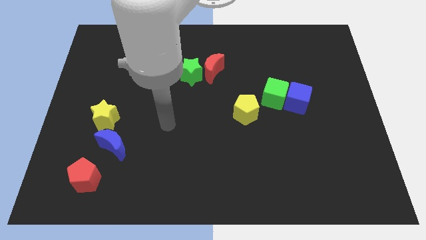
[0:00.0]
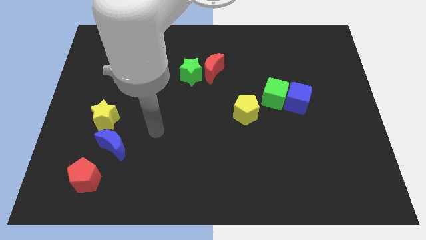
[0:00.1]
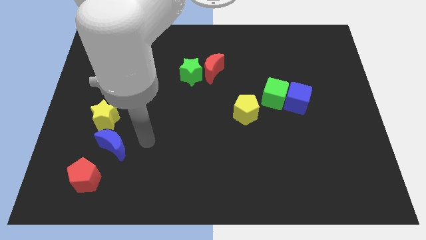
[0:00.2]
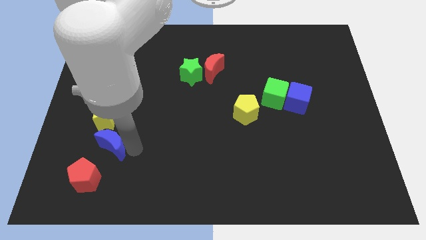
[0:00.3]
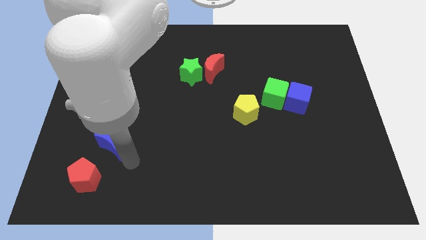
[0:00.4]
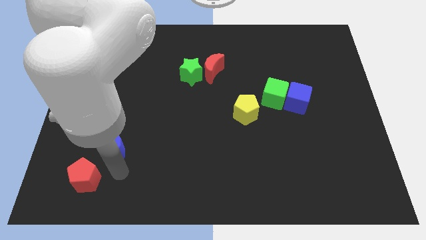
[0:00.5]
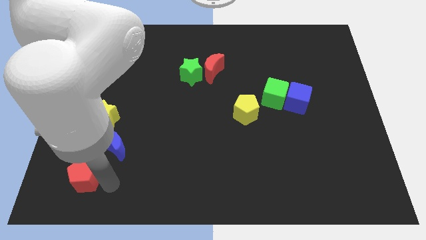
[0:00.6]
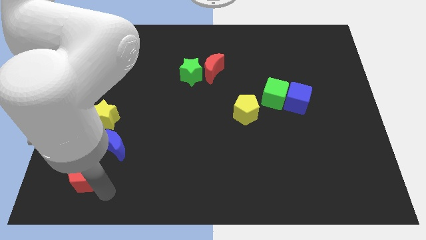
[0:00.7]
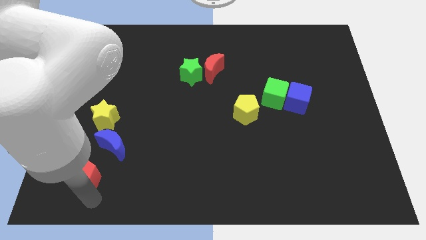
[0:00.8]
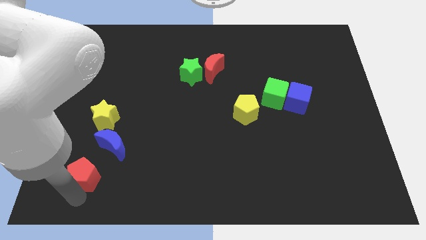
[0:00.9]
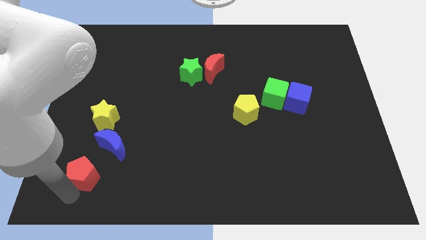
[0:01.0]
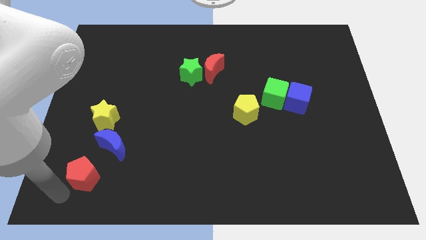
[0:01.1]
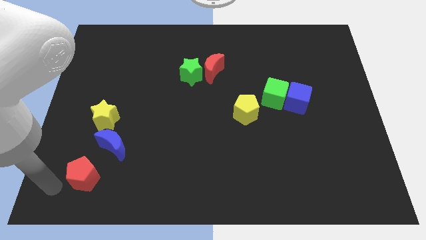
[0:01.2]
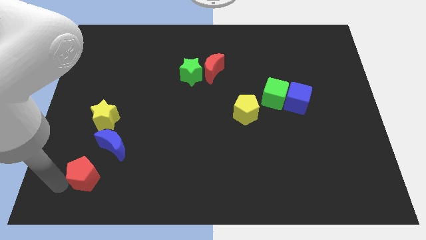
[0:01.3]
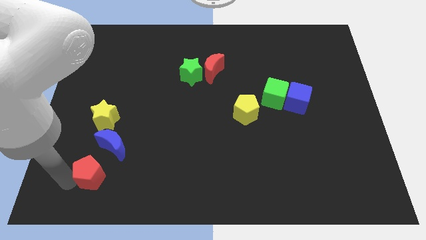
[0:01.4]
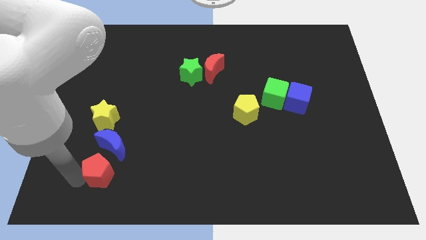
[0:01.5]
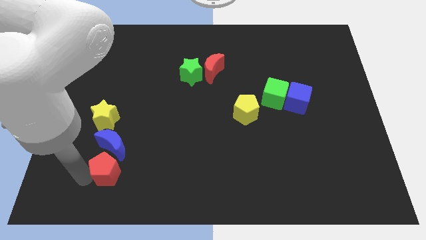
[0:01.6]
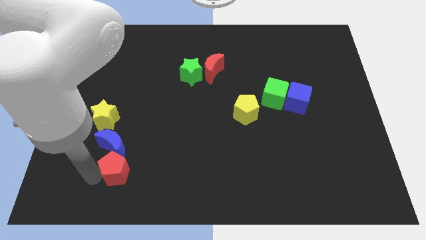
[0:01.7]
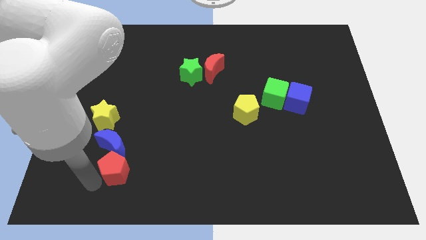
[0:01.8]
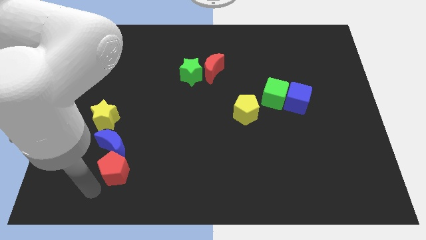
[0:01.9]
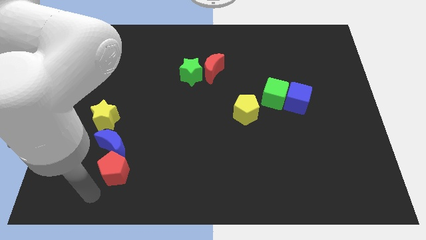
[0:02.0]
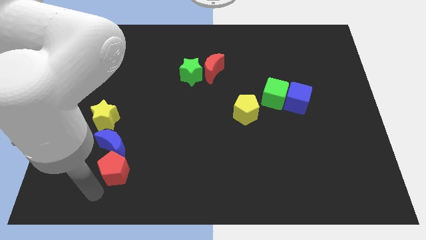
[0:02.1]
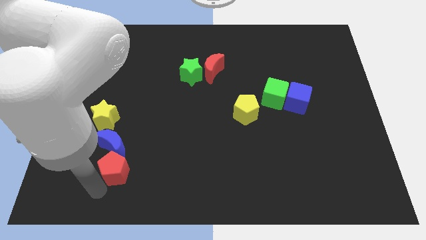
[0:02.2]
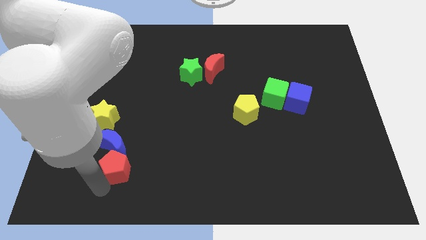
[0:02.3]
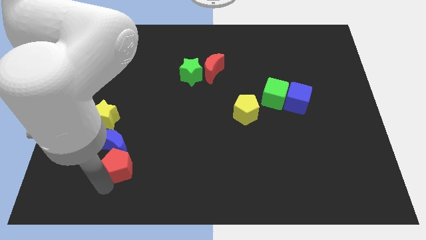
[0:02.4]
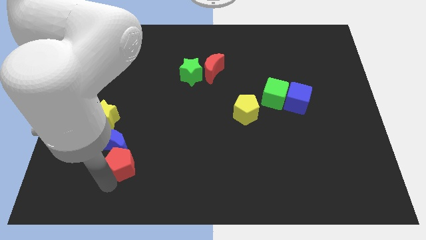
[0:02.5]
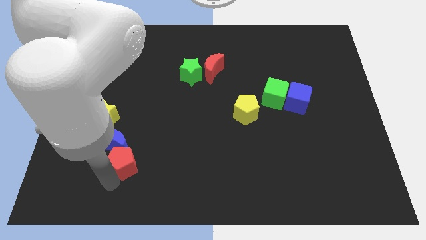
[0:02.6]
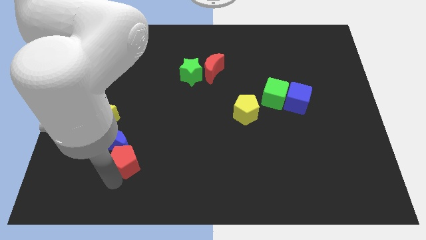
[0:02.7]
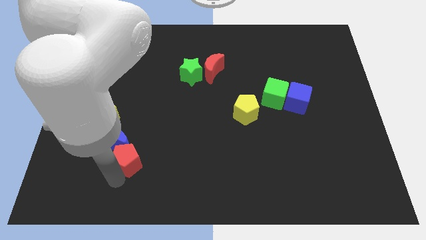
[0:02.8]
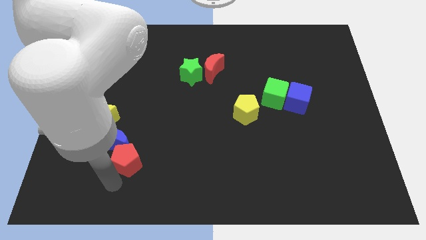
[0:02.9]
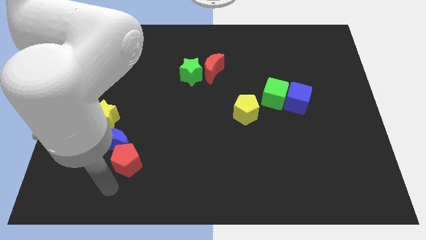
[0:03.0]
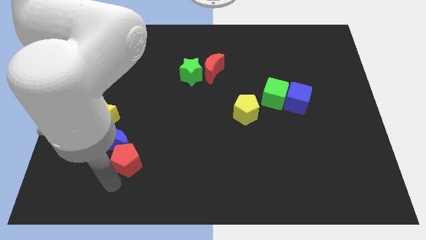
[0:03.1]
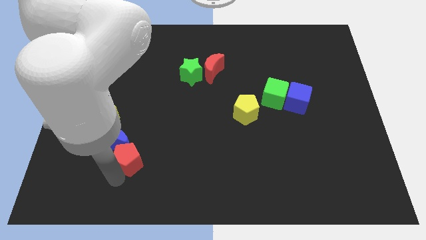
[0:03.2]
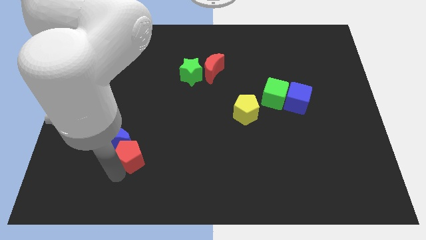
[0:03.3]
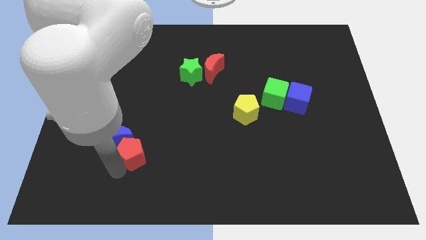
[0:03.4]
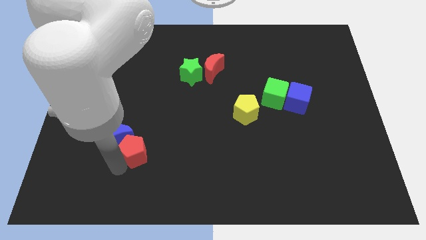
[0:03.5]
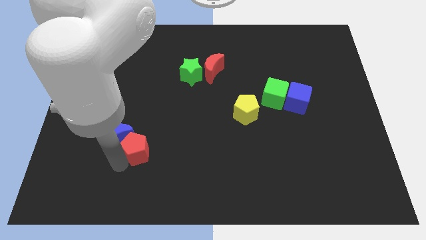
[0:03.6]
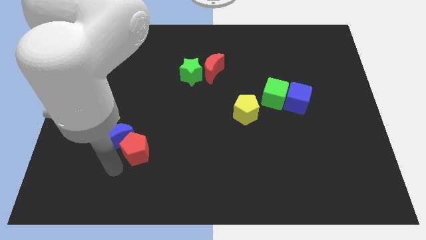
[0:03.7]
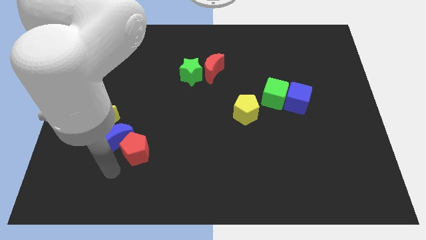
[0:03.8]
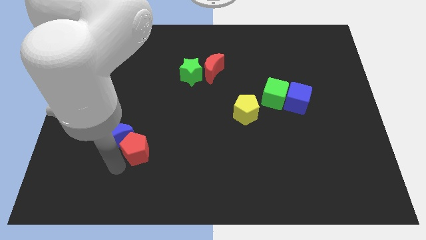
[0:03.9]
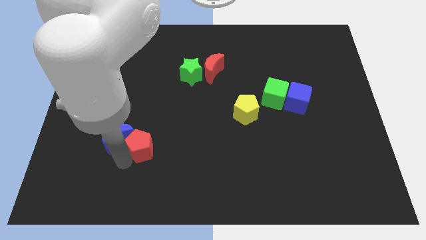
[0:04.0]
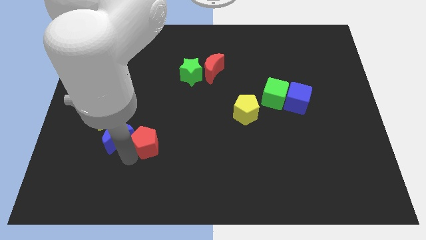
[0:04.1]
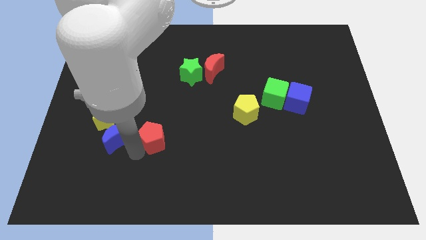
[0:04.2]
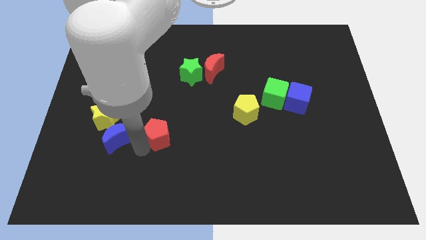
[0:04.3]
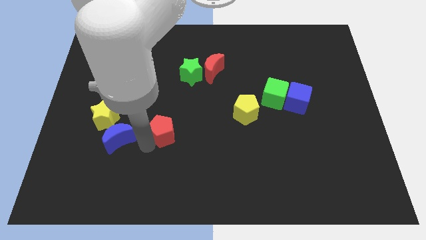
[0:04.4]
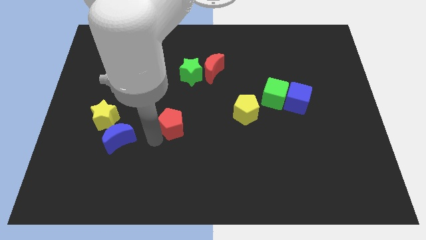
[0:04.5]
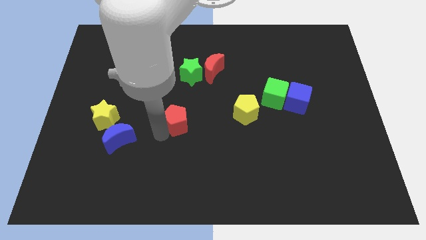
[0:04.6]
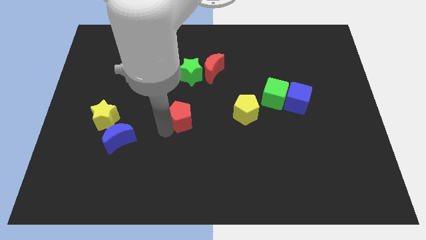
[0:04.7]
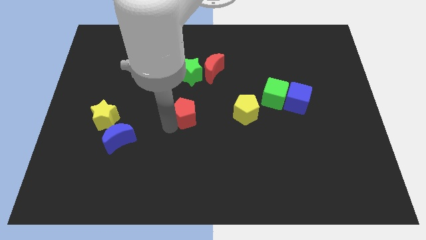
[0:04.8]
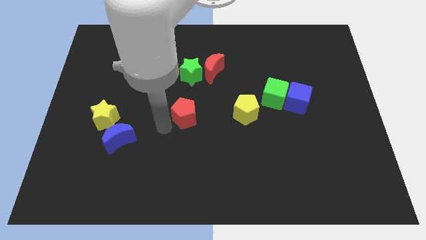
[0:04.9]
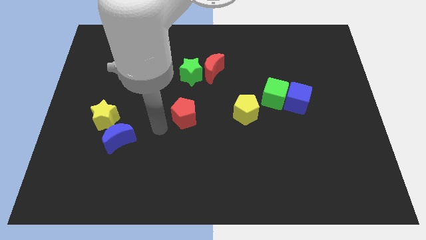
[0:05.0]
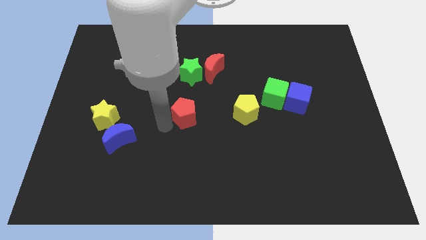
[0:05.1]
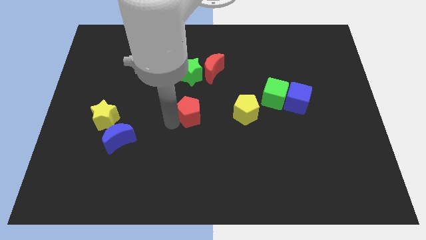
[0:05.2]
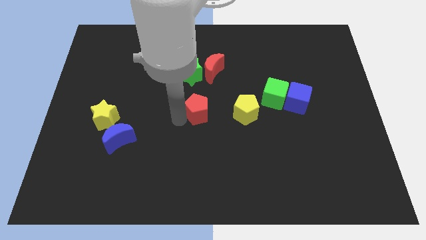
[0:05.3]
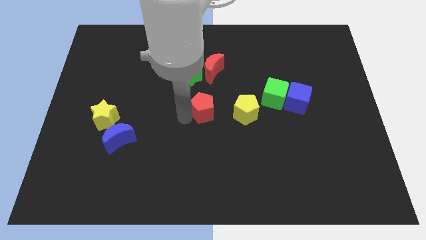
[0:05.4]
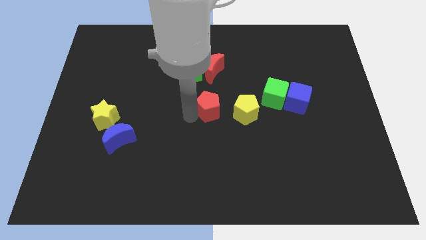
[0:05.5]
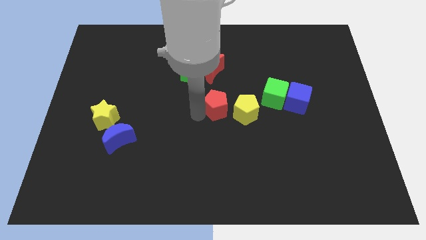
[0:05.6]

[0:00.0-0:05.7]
put the red pentagon to the top left side of the yellow pentagon

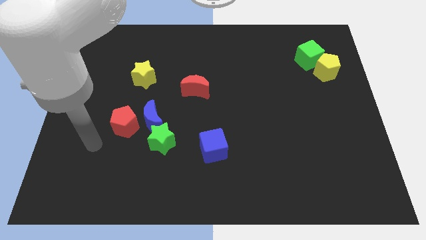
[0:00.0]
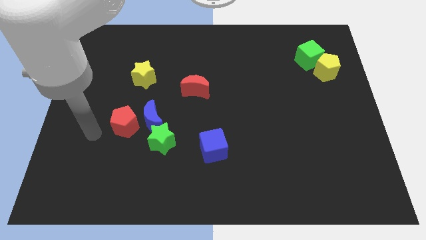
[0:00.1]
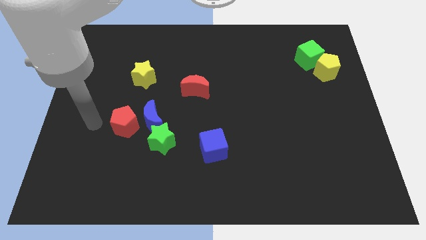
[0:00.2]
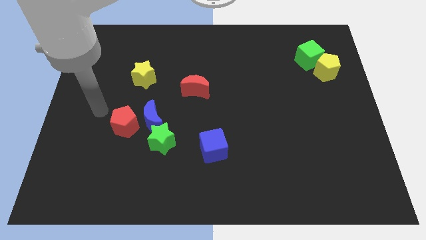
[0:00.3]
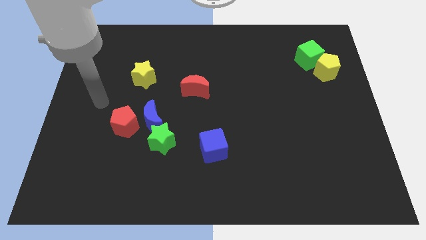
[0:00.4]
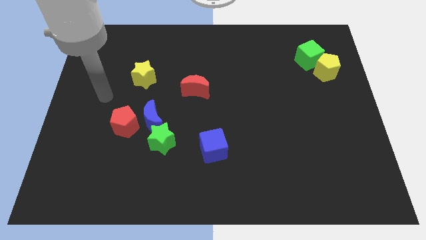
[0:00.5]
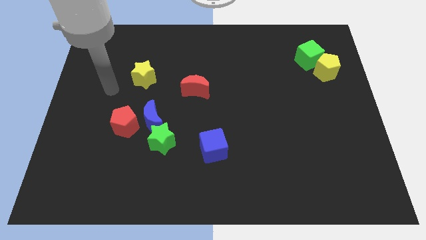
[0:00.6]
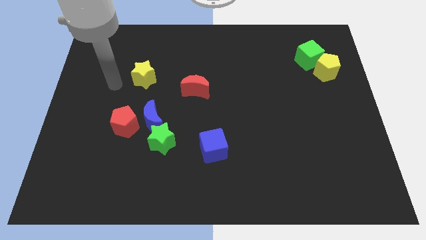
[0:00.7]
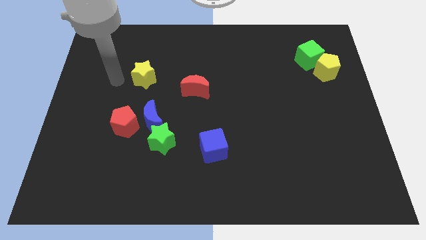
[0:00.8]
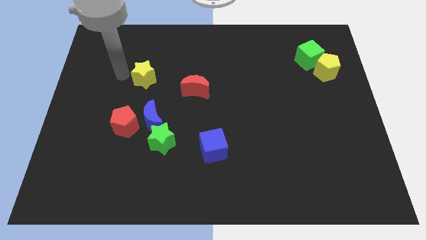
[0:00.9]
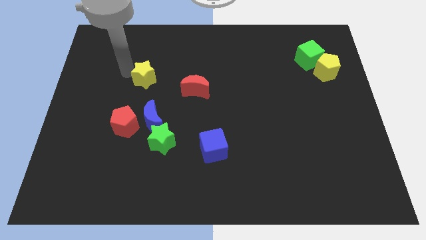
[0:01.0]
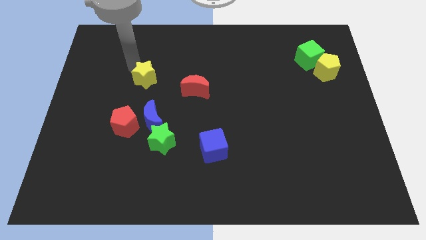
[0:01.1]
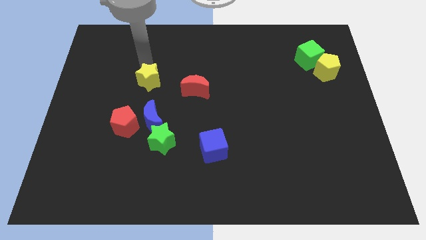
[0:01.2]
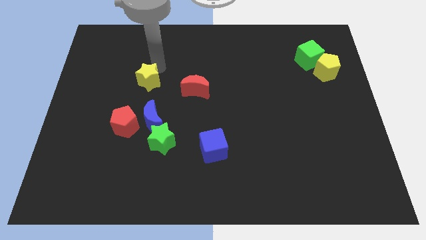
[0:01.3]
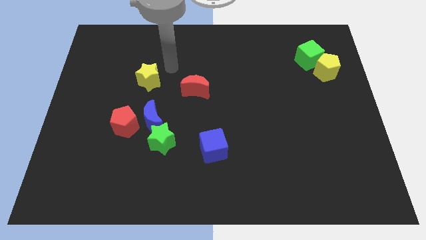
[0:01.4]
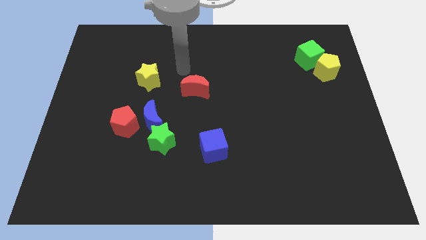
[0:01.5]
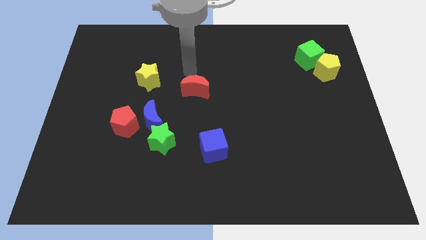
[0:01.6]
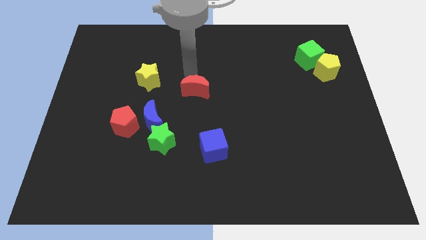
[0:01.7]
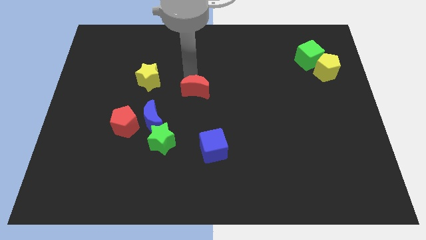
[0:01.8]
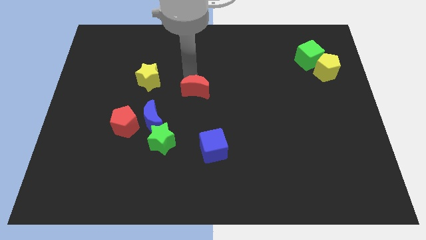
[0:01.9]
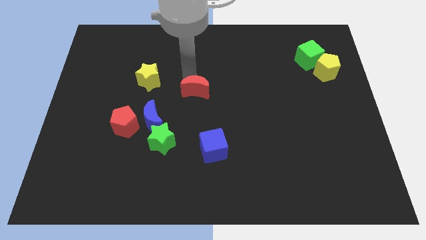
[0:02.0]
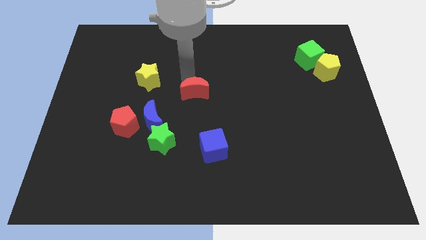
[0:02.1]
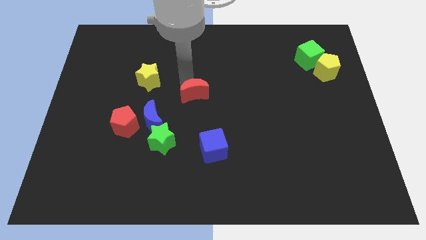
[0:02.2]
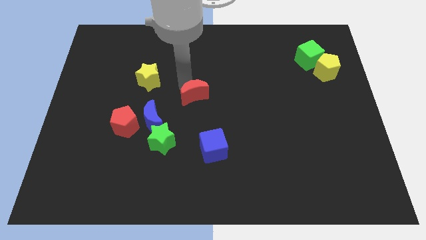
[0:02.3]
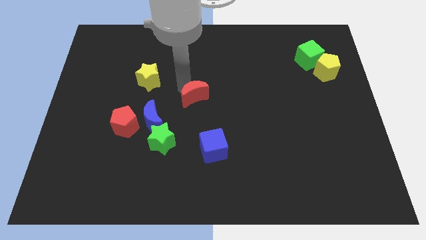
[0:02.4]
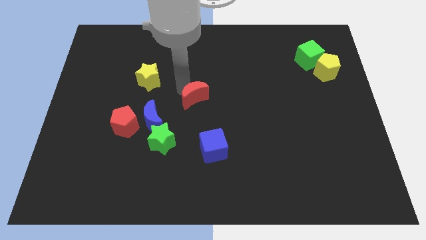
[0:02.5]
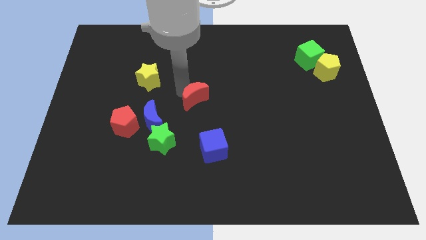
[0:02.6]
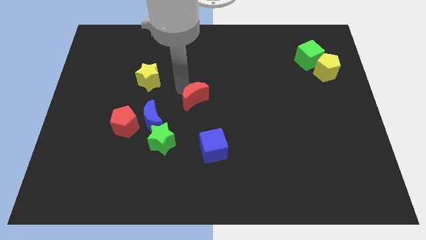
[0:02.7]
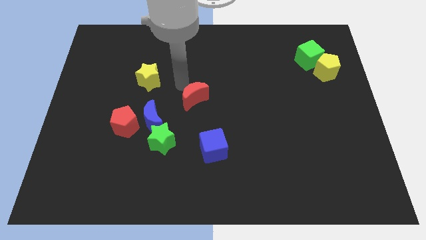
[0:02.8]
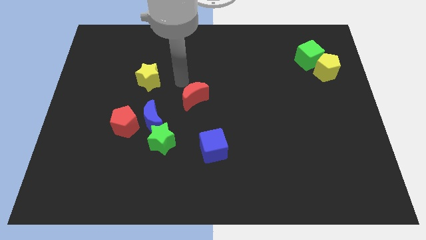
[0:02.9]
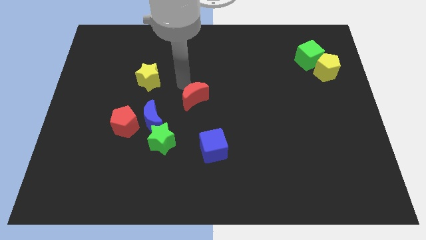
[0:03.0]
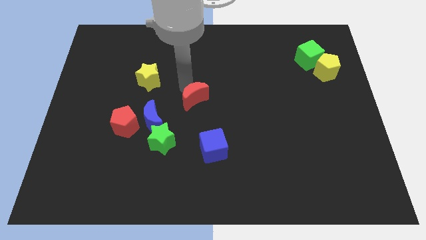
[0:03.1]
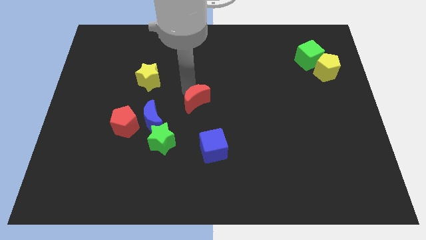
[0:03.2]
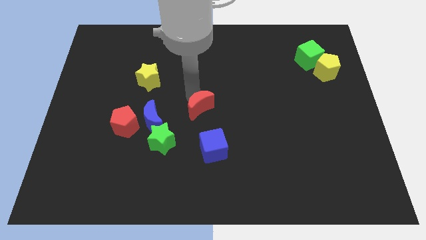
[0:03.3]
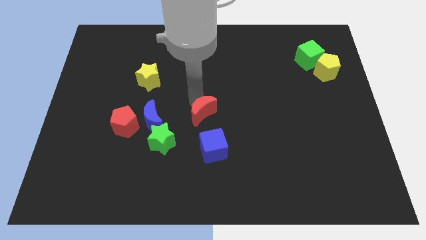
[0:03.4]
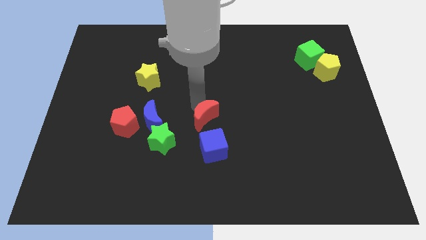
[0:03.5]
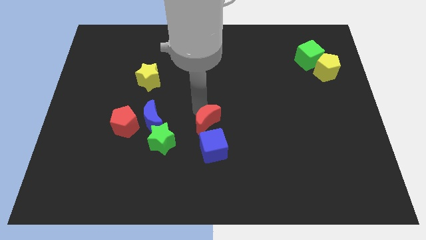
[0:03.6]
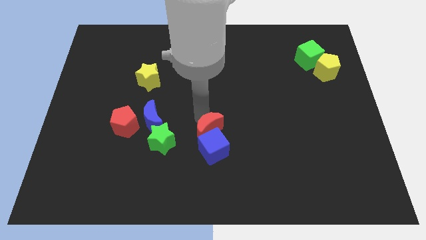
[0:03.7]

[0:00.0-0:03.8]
put the red moon to the right side of the green star
